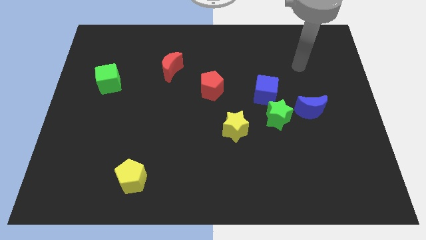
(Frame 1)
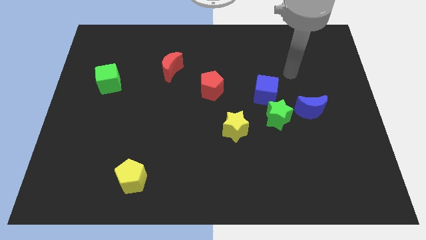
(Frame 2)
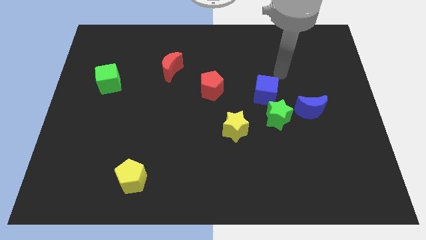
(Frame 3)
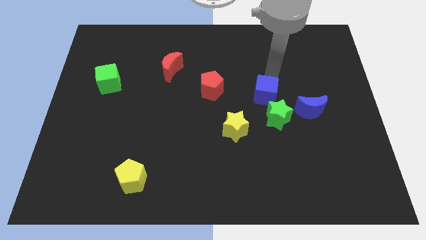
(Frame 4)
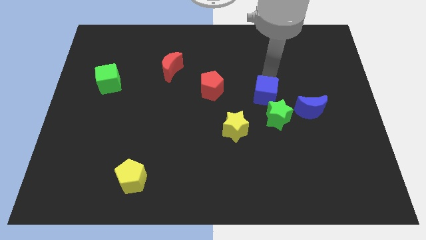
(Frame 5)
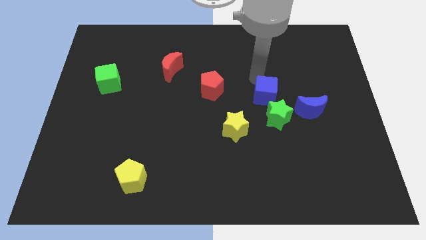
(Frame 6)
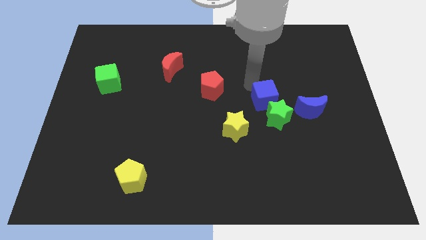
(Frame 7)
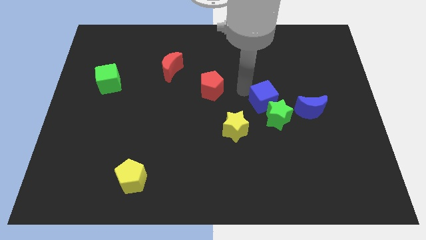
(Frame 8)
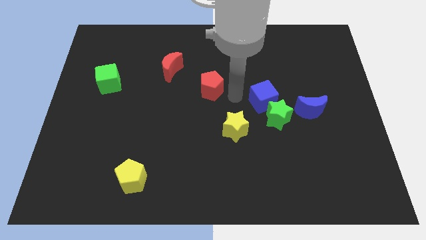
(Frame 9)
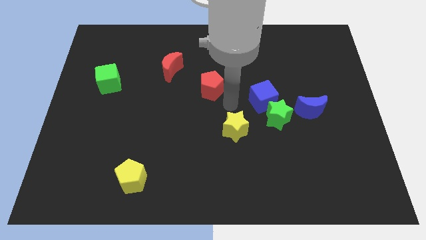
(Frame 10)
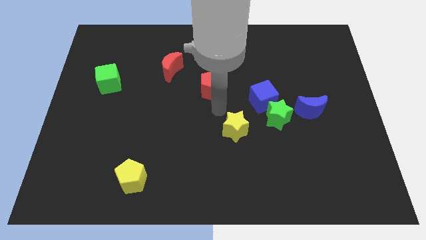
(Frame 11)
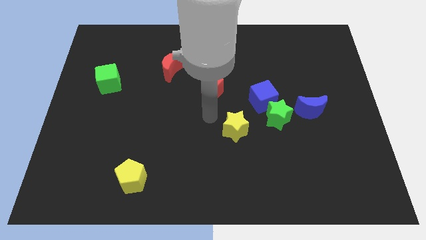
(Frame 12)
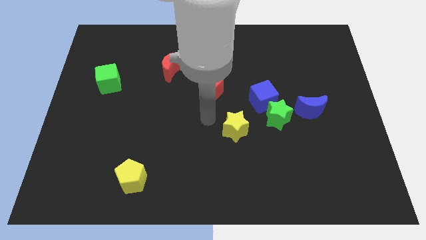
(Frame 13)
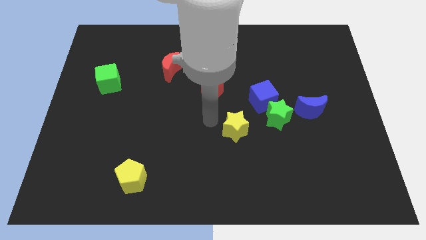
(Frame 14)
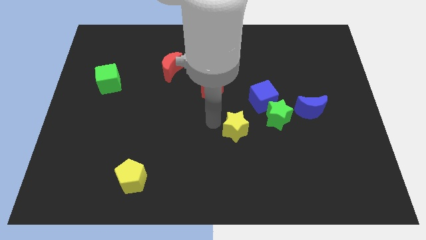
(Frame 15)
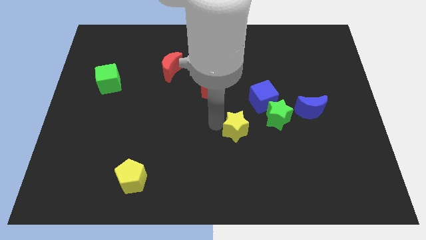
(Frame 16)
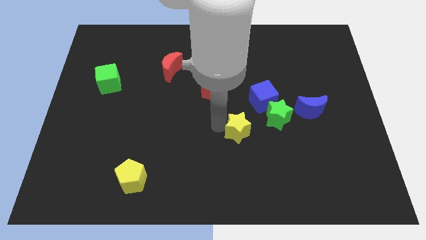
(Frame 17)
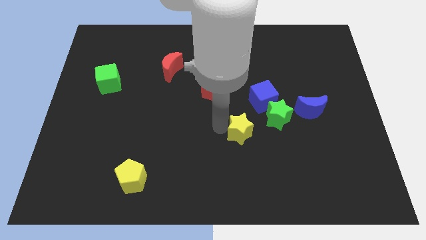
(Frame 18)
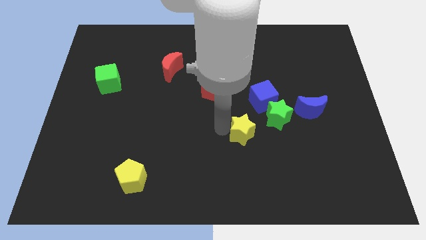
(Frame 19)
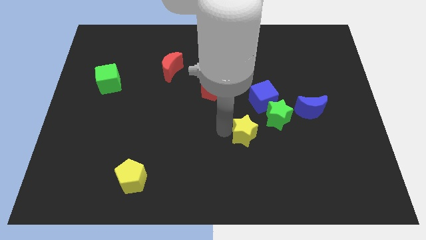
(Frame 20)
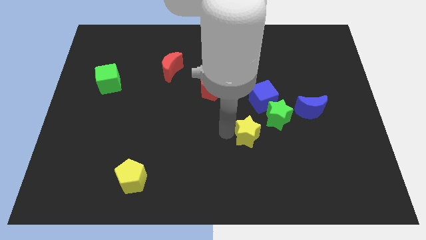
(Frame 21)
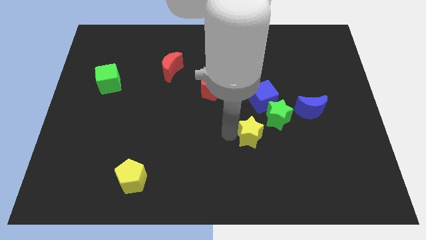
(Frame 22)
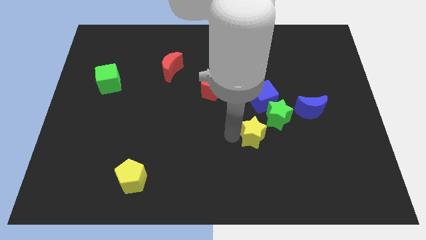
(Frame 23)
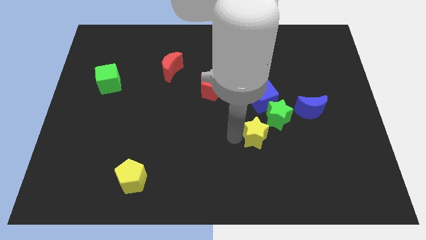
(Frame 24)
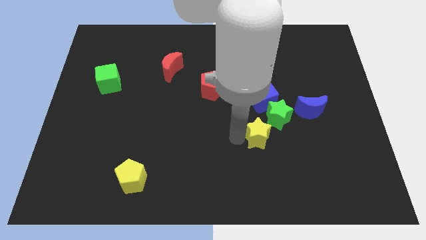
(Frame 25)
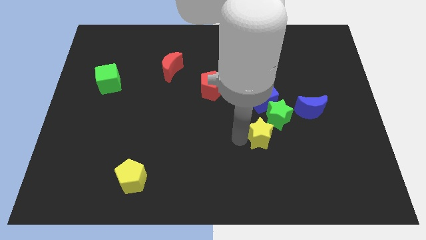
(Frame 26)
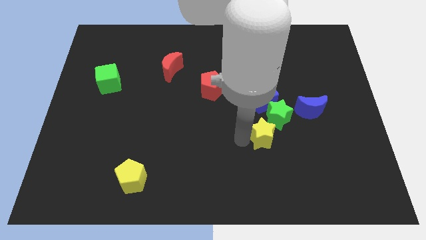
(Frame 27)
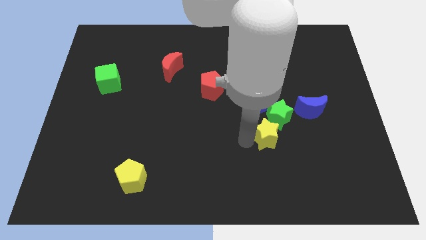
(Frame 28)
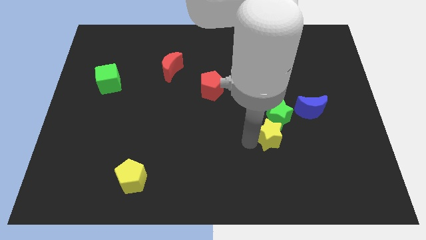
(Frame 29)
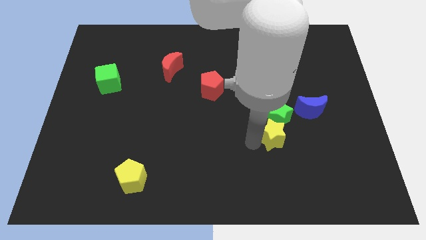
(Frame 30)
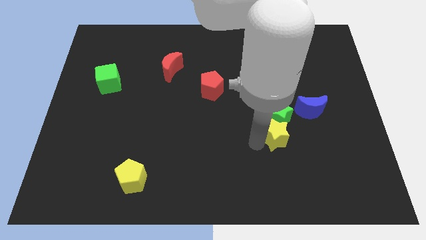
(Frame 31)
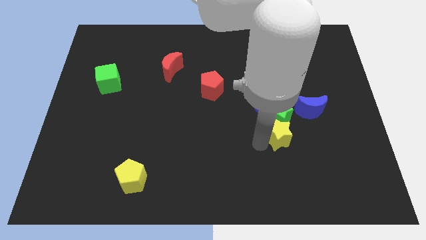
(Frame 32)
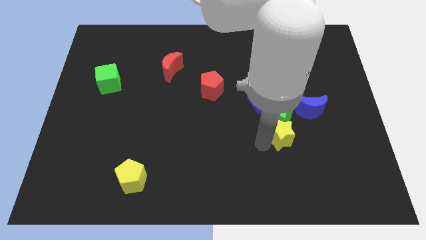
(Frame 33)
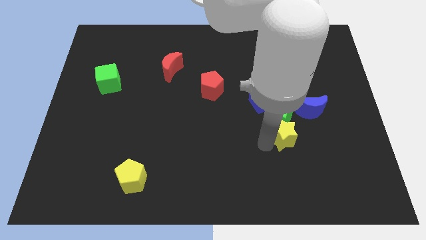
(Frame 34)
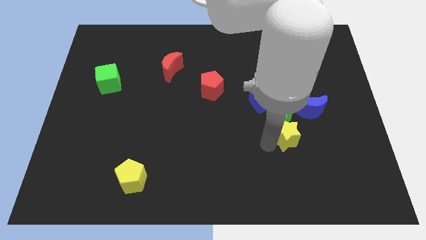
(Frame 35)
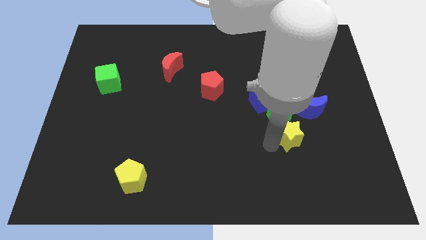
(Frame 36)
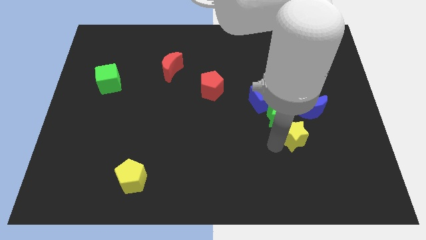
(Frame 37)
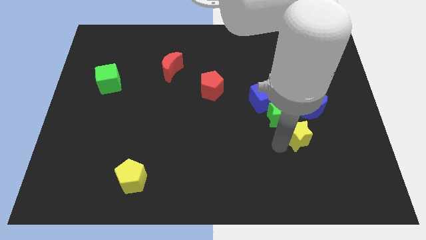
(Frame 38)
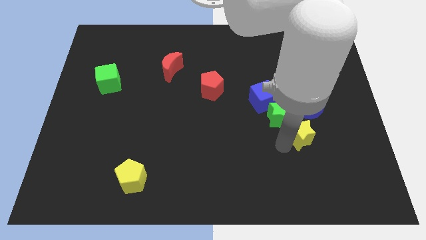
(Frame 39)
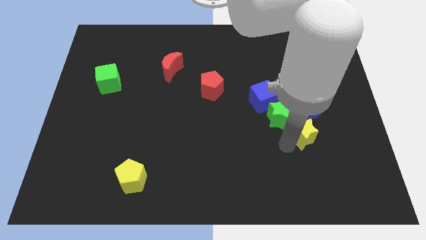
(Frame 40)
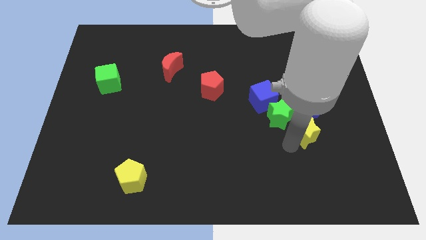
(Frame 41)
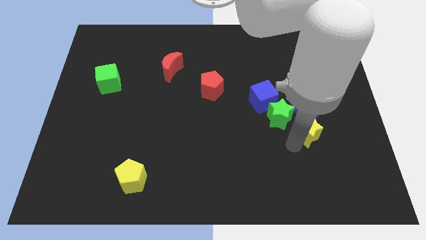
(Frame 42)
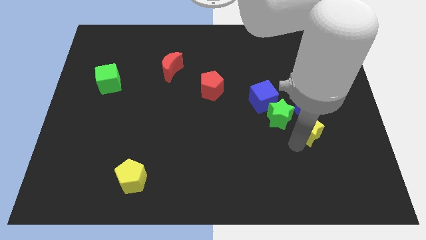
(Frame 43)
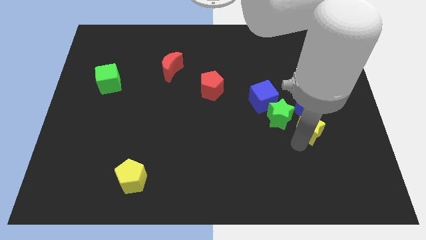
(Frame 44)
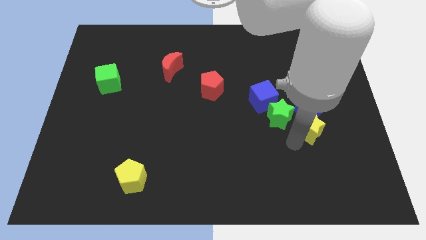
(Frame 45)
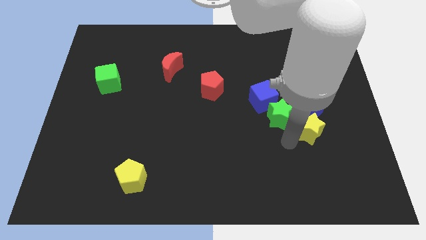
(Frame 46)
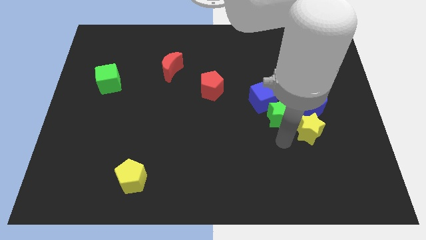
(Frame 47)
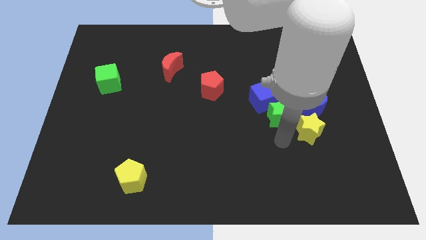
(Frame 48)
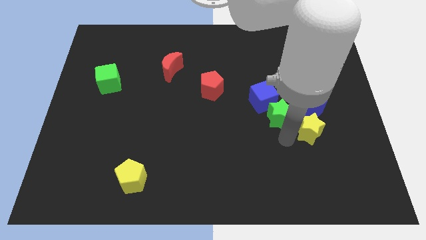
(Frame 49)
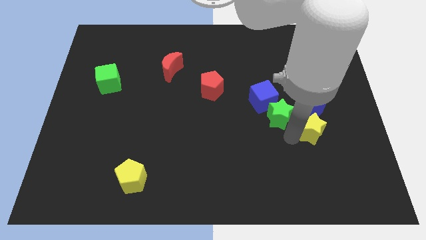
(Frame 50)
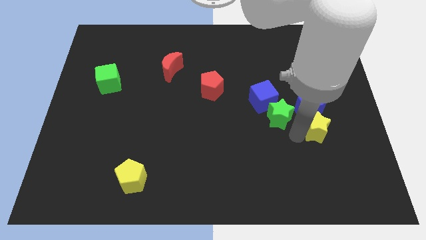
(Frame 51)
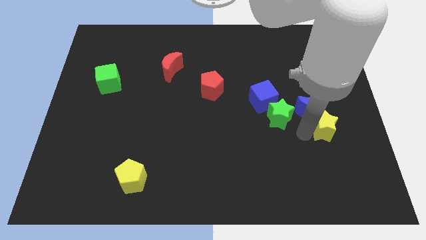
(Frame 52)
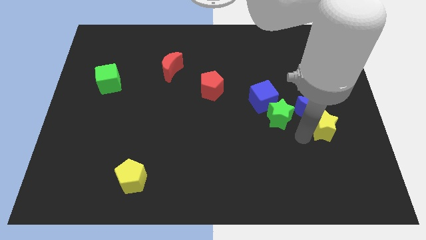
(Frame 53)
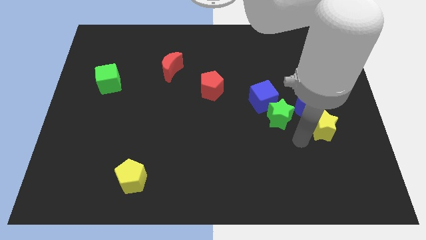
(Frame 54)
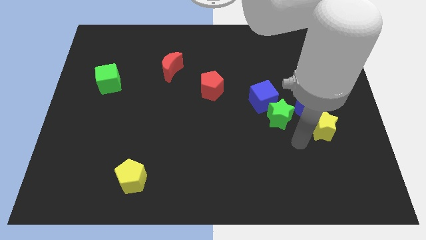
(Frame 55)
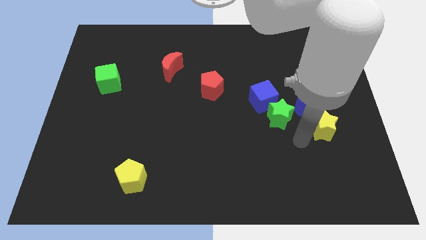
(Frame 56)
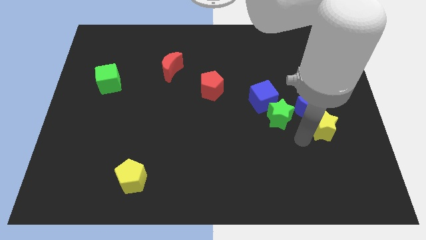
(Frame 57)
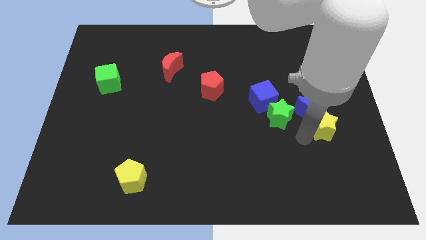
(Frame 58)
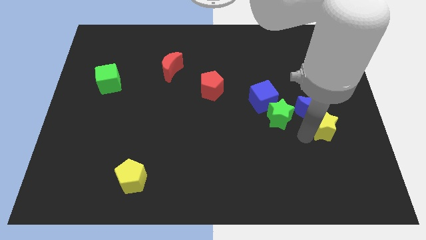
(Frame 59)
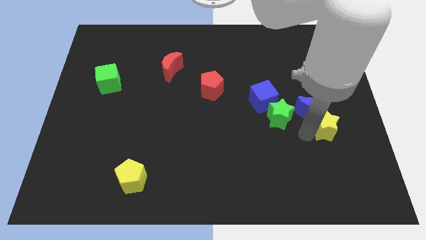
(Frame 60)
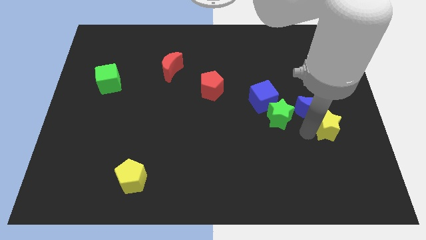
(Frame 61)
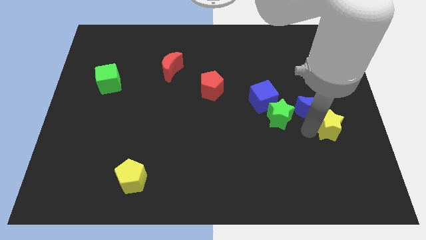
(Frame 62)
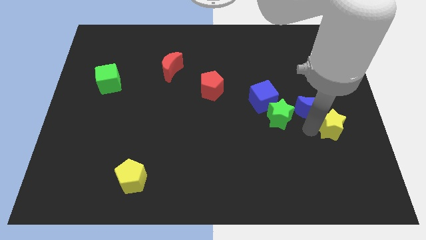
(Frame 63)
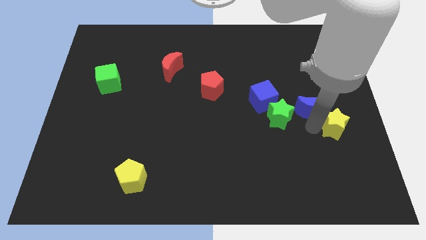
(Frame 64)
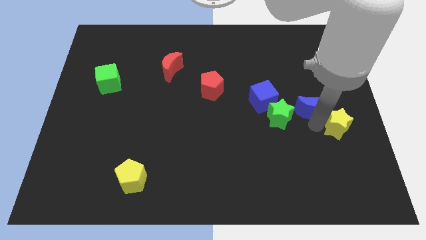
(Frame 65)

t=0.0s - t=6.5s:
put the yellow star to the center right

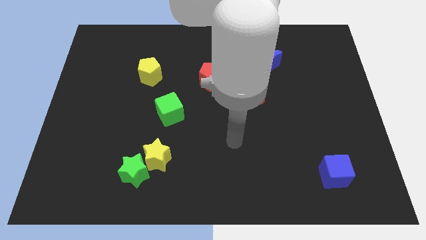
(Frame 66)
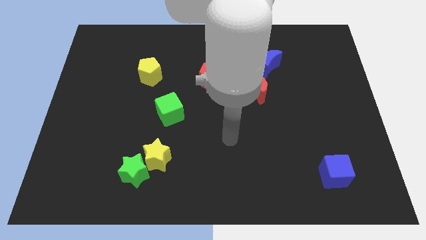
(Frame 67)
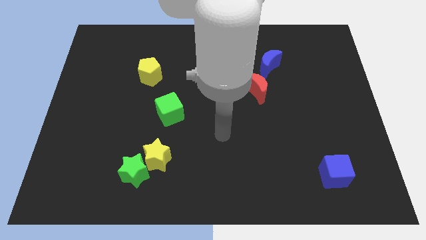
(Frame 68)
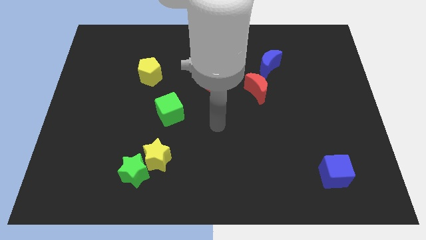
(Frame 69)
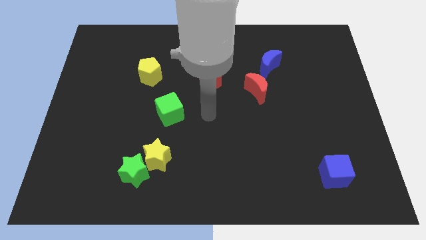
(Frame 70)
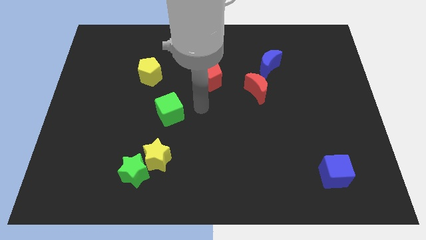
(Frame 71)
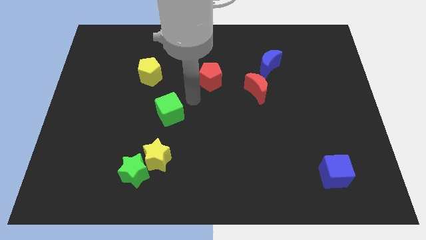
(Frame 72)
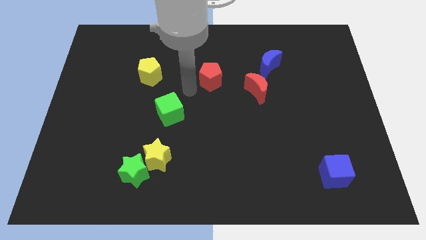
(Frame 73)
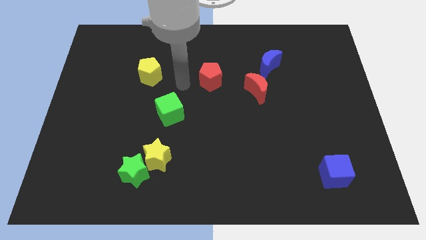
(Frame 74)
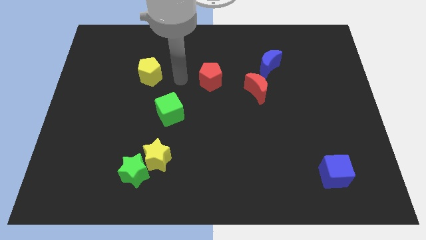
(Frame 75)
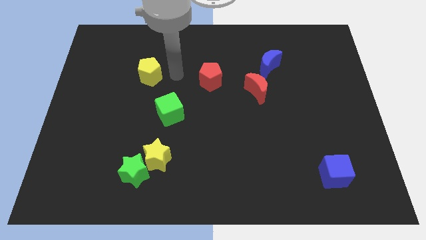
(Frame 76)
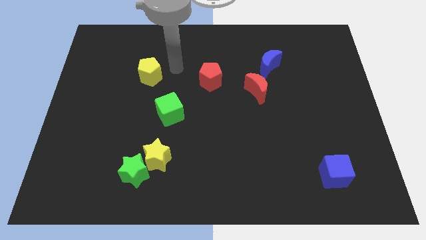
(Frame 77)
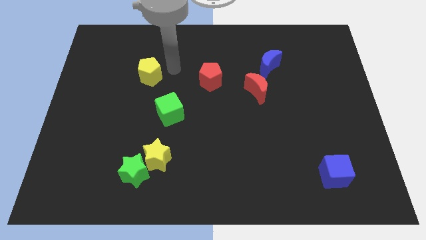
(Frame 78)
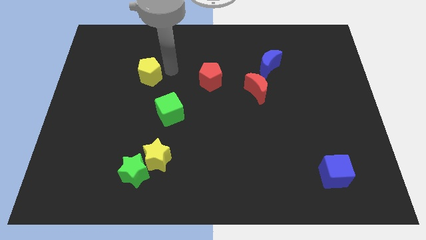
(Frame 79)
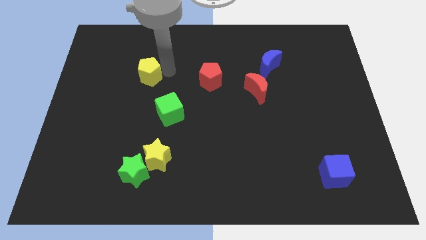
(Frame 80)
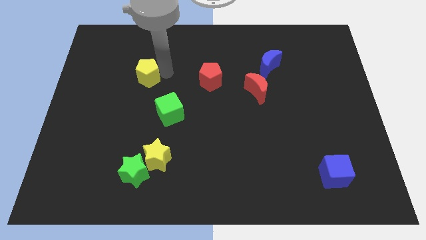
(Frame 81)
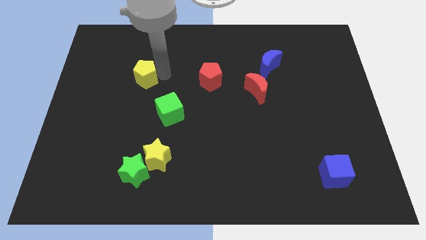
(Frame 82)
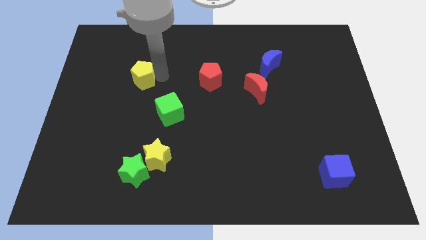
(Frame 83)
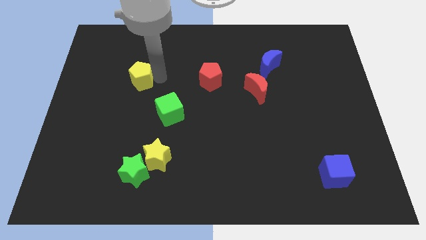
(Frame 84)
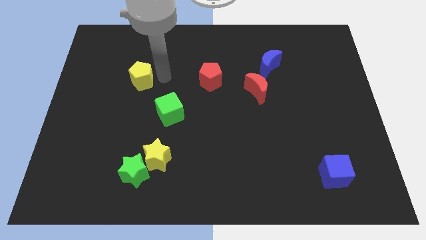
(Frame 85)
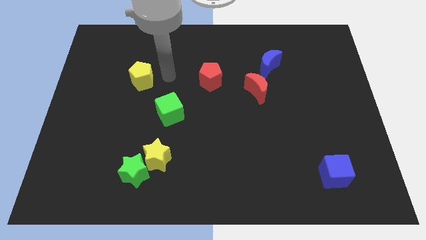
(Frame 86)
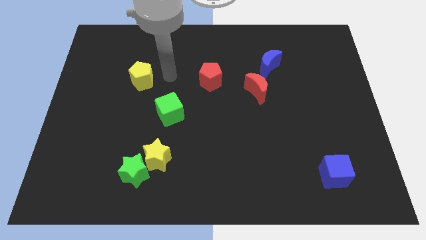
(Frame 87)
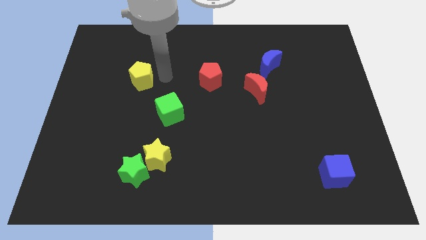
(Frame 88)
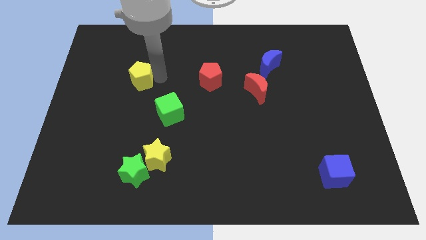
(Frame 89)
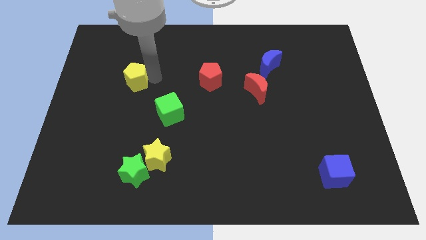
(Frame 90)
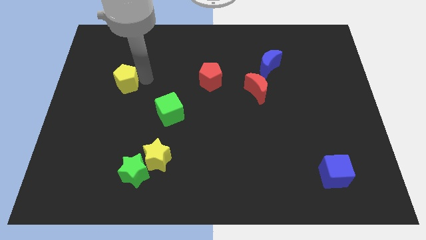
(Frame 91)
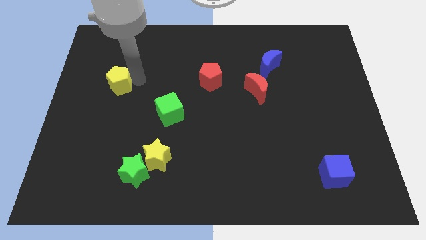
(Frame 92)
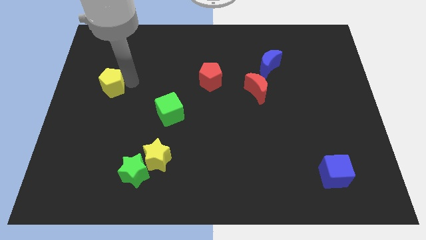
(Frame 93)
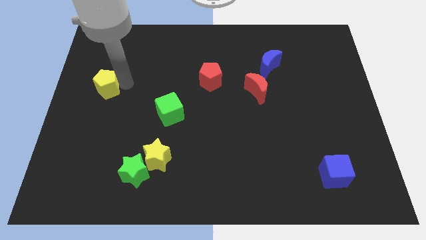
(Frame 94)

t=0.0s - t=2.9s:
put the yellow pentagon to the left side of the board
